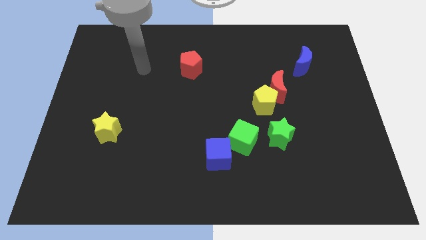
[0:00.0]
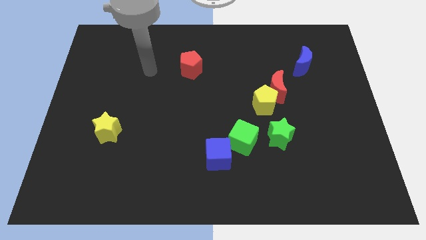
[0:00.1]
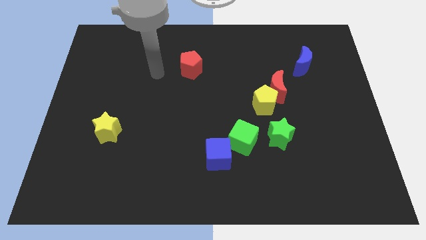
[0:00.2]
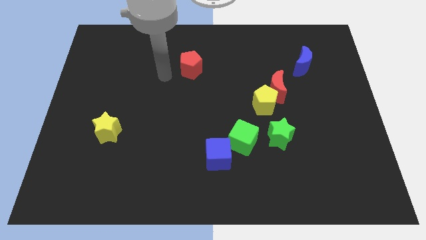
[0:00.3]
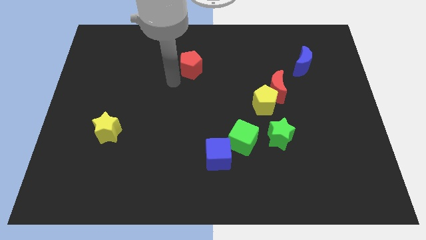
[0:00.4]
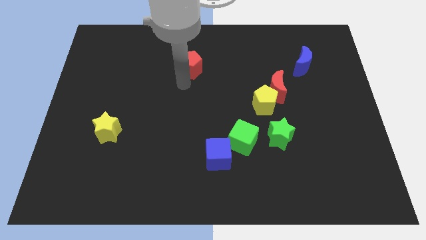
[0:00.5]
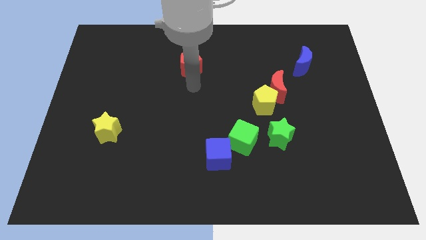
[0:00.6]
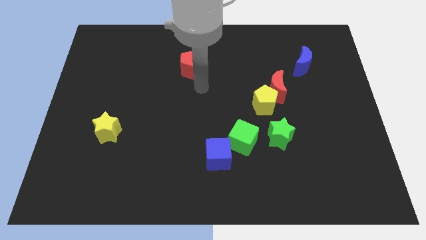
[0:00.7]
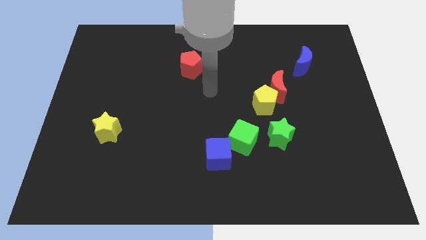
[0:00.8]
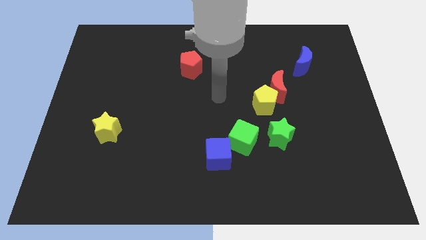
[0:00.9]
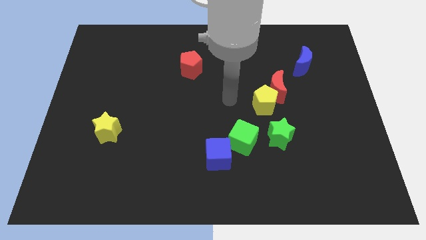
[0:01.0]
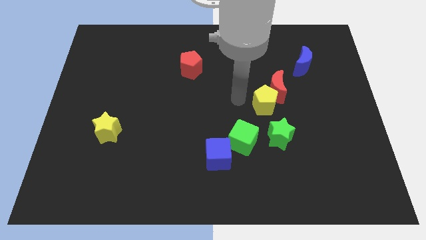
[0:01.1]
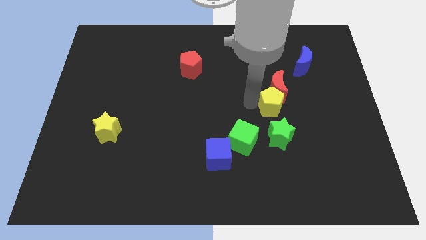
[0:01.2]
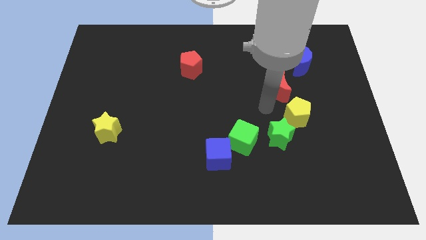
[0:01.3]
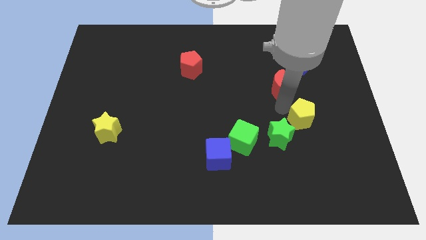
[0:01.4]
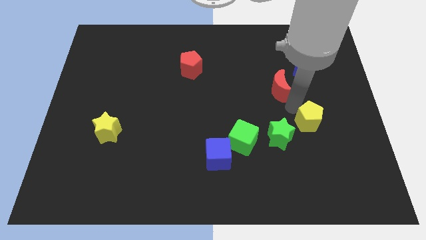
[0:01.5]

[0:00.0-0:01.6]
pull the red moon apart from the yellow pentagon

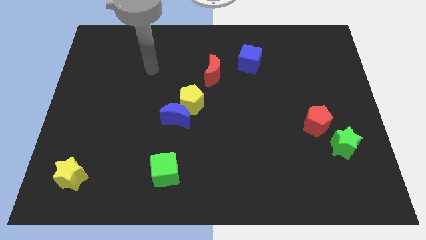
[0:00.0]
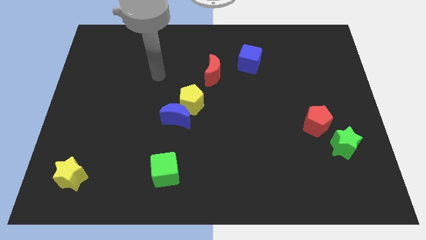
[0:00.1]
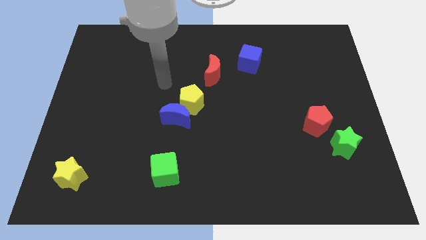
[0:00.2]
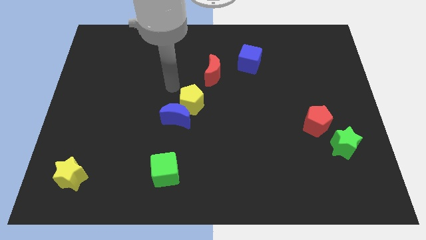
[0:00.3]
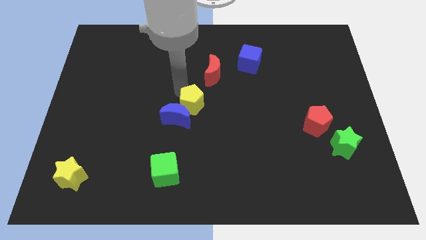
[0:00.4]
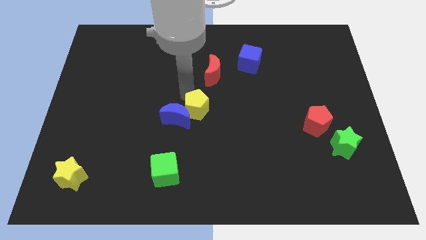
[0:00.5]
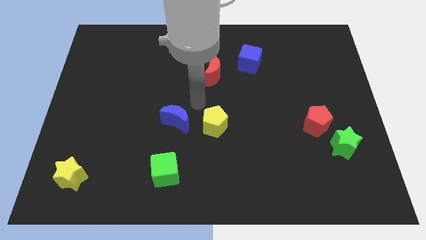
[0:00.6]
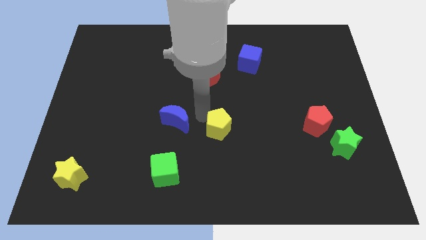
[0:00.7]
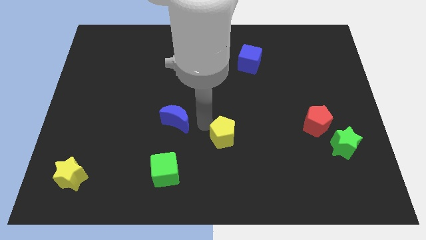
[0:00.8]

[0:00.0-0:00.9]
separate the blue moon from the yellow pentagon

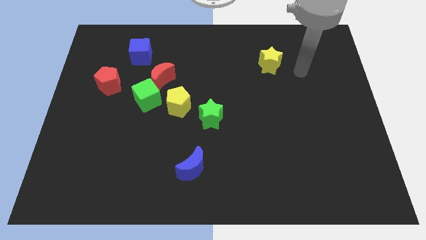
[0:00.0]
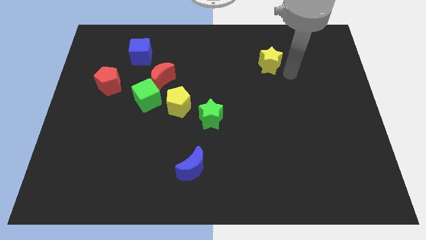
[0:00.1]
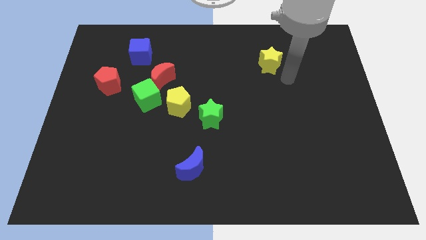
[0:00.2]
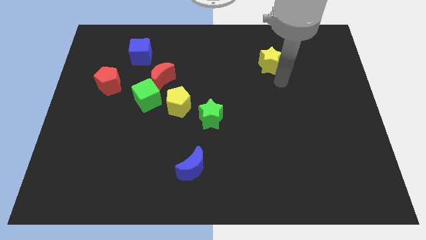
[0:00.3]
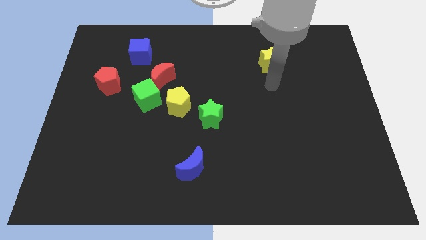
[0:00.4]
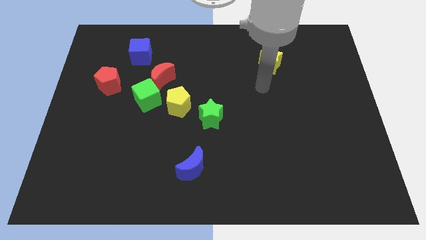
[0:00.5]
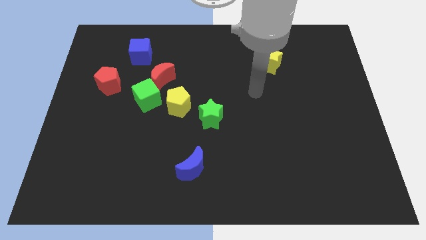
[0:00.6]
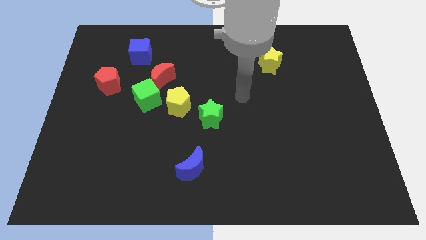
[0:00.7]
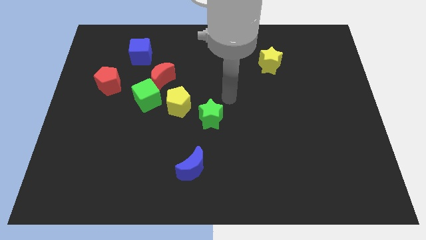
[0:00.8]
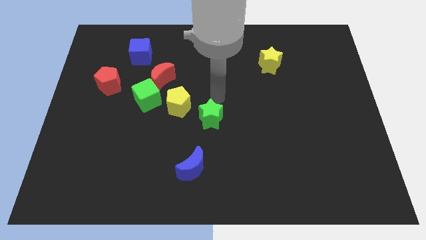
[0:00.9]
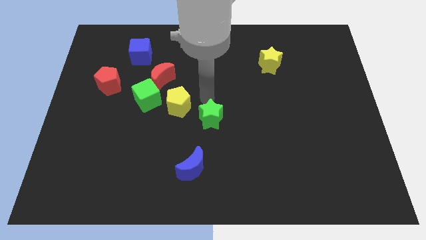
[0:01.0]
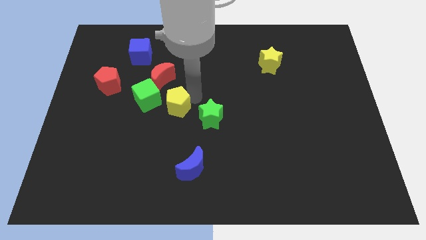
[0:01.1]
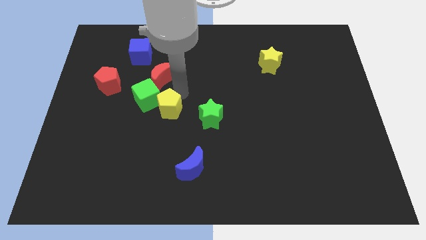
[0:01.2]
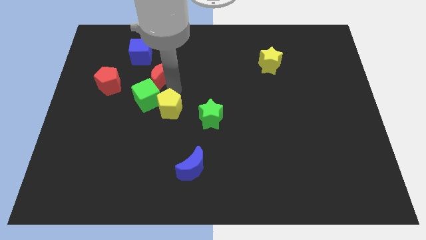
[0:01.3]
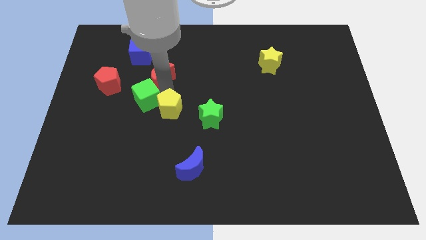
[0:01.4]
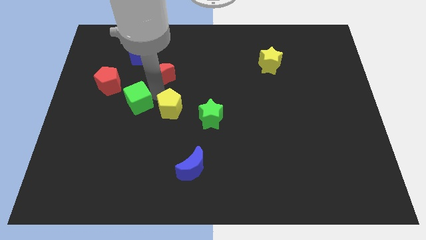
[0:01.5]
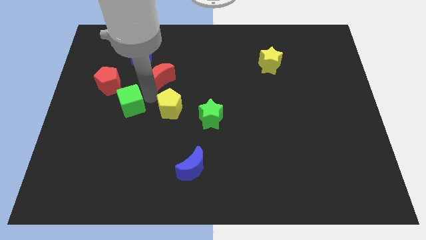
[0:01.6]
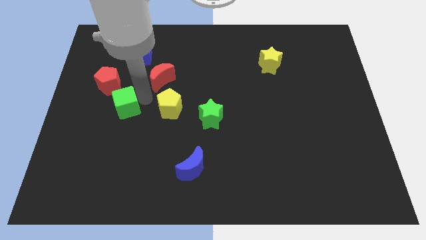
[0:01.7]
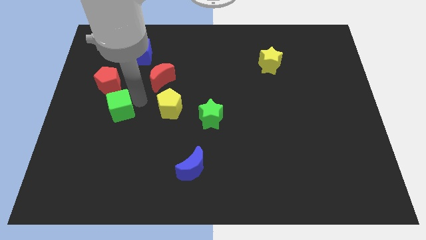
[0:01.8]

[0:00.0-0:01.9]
move the green cube away from the red moon and yellow pentagon

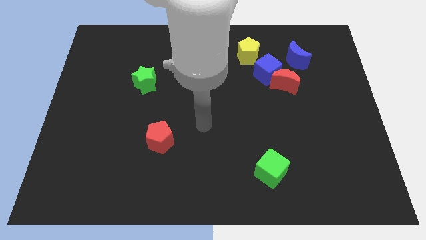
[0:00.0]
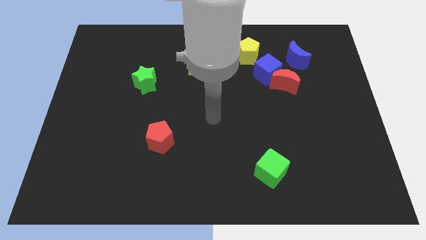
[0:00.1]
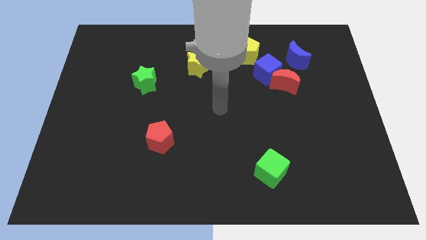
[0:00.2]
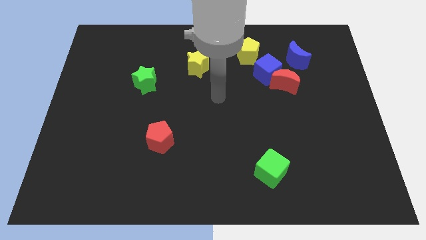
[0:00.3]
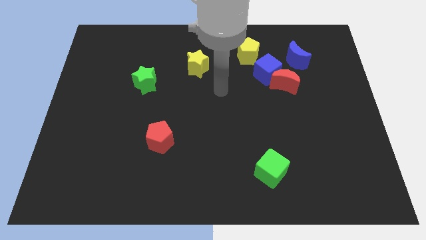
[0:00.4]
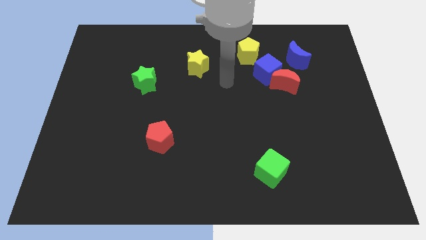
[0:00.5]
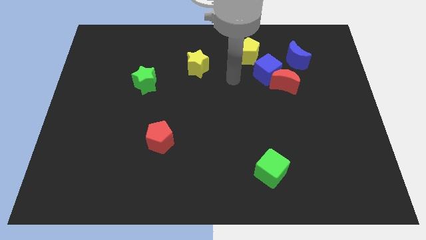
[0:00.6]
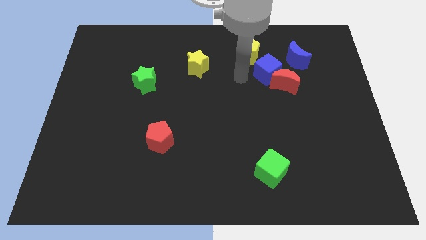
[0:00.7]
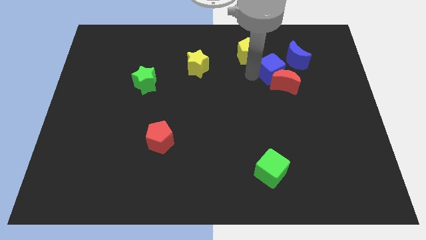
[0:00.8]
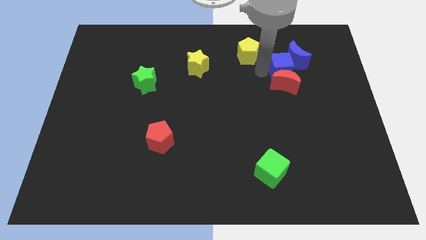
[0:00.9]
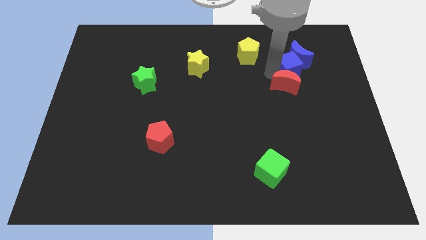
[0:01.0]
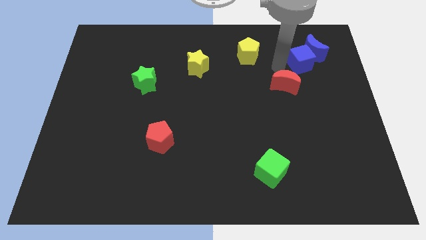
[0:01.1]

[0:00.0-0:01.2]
move the red moon away from the blue cube and blue moon

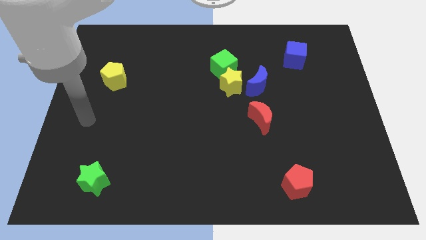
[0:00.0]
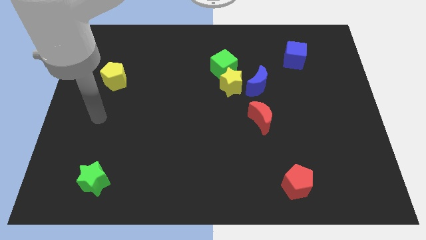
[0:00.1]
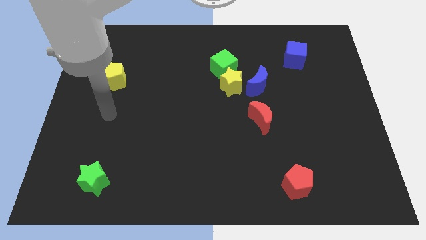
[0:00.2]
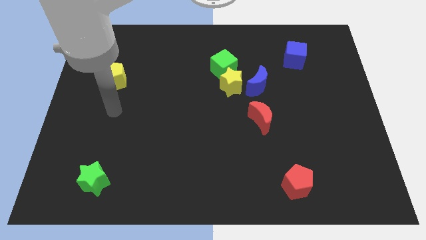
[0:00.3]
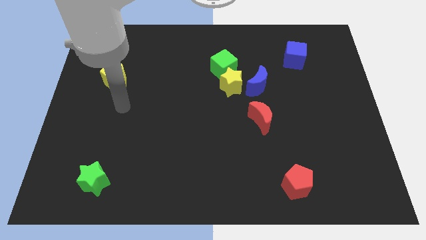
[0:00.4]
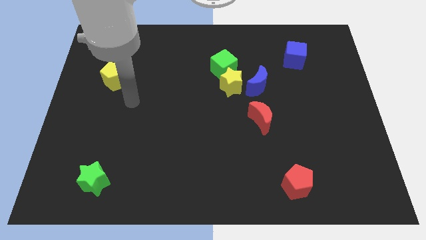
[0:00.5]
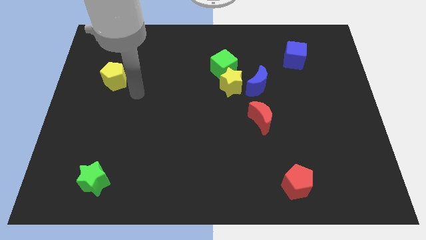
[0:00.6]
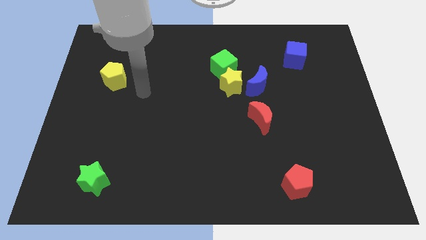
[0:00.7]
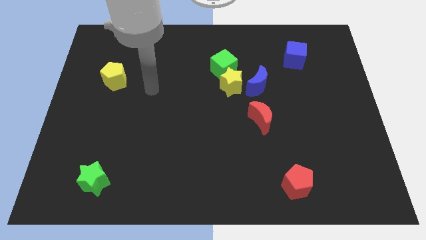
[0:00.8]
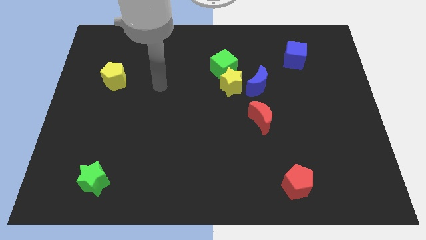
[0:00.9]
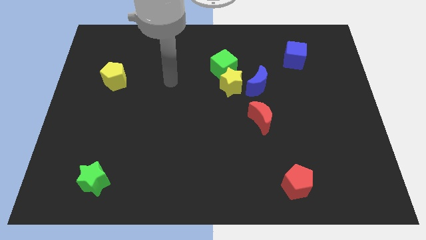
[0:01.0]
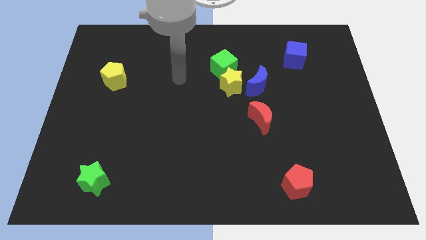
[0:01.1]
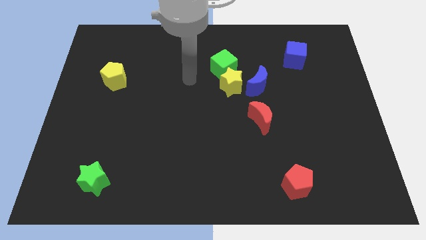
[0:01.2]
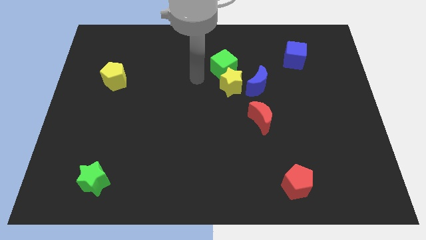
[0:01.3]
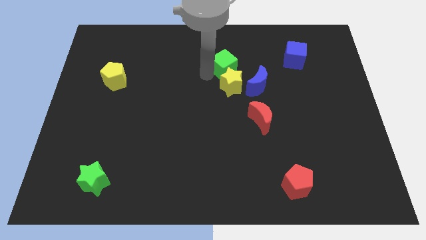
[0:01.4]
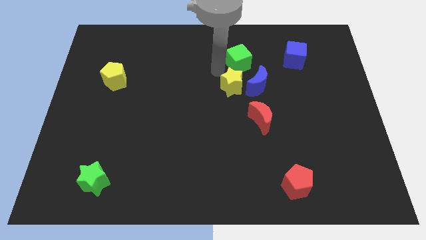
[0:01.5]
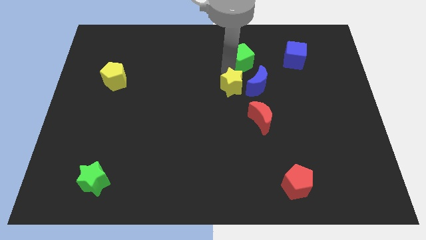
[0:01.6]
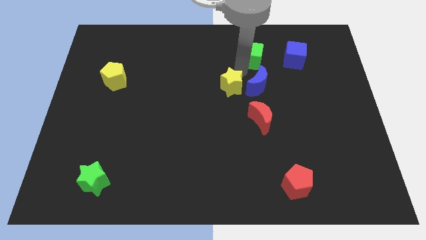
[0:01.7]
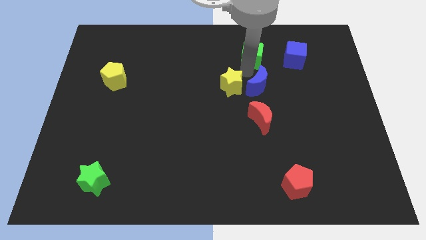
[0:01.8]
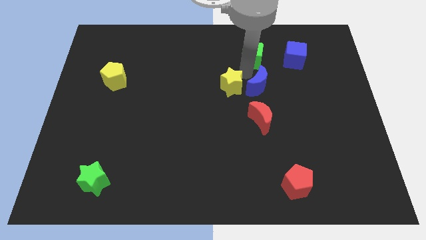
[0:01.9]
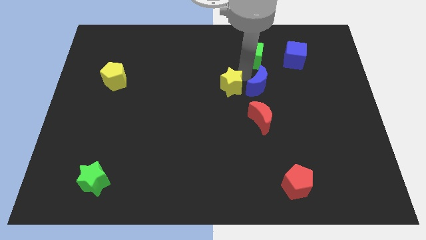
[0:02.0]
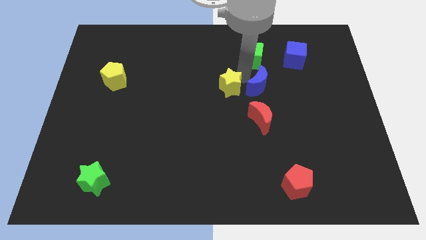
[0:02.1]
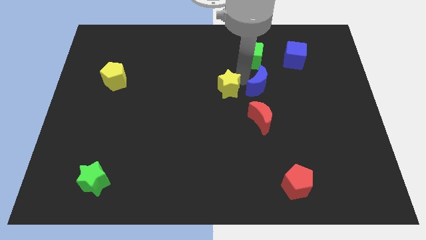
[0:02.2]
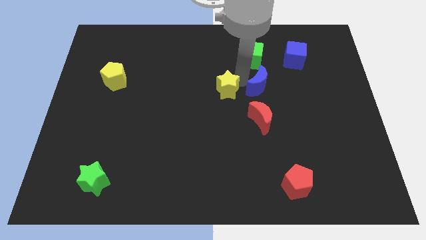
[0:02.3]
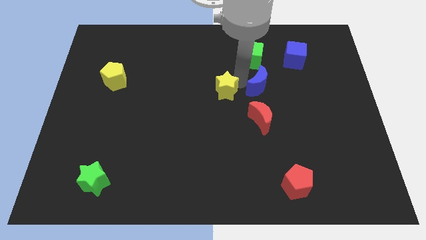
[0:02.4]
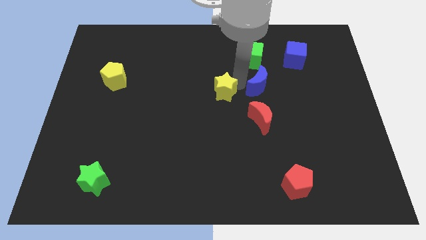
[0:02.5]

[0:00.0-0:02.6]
separate the yellow star from the green cube and blue moon

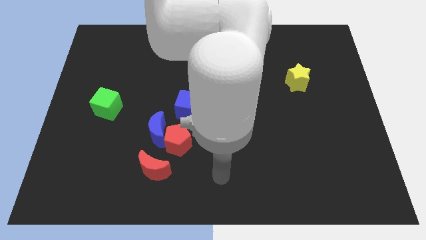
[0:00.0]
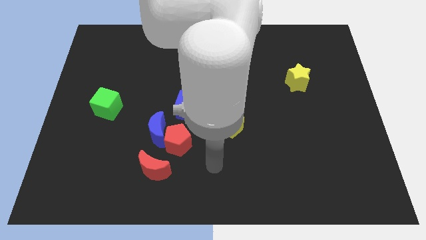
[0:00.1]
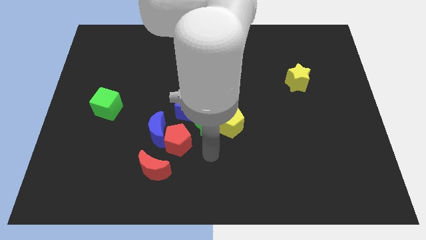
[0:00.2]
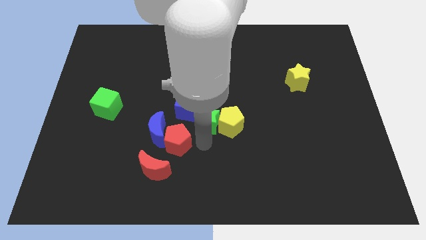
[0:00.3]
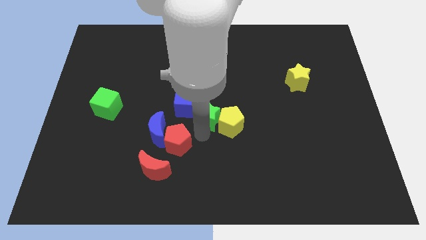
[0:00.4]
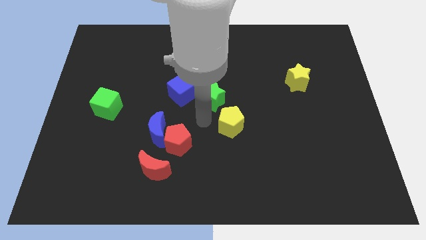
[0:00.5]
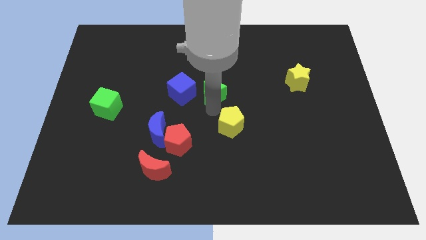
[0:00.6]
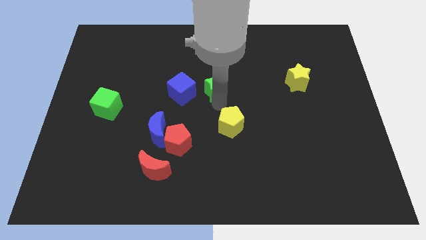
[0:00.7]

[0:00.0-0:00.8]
pull the yellow pentagon apart from the green star

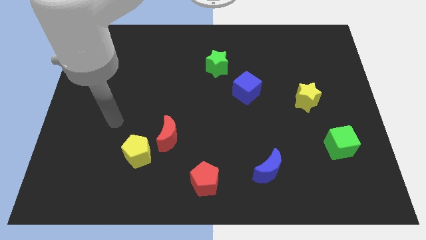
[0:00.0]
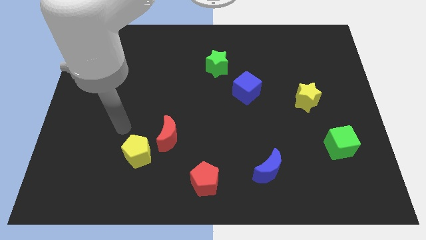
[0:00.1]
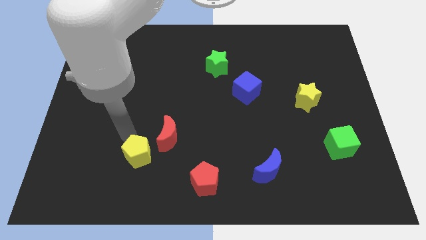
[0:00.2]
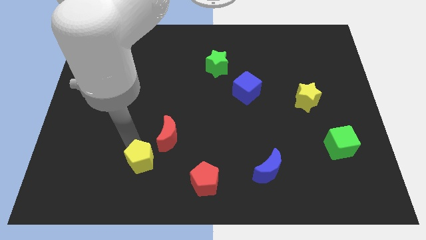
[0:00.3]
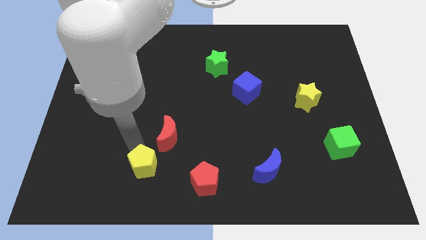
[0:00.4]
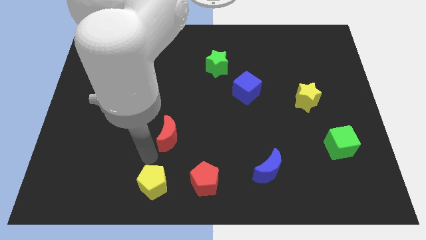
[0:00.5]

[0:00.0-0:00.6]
separate the red moon from the yellow pentagon
